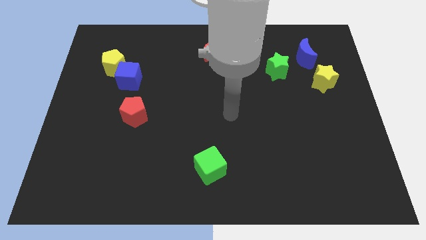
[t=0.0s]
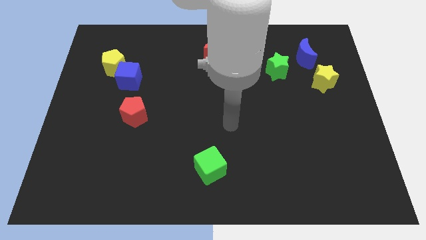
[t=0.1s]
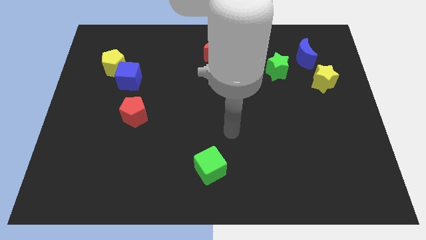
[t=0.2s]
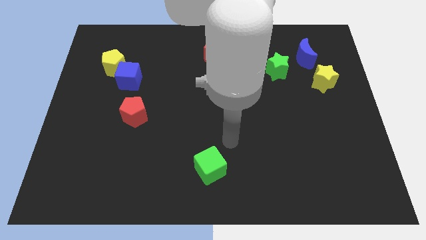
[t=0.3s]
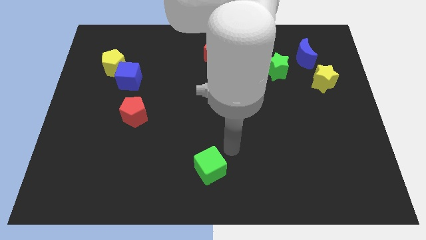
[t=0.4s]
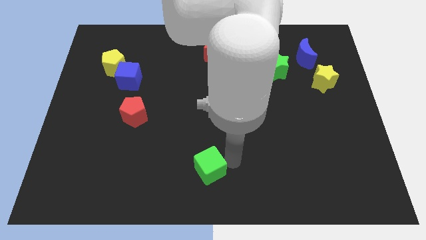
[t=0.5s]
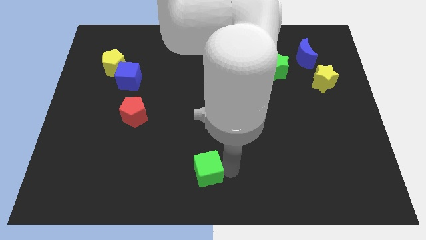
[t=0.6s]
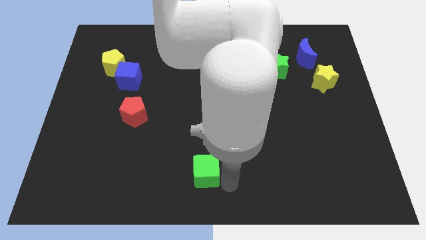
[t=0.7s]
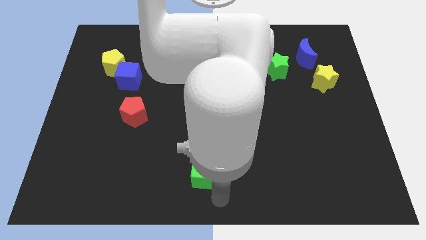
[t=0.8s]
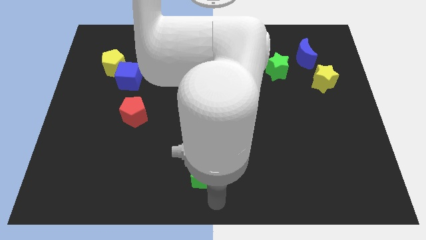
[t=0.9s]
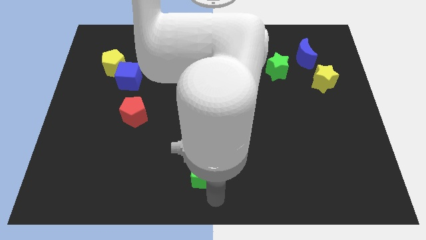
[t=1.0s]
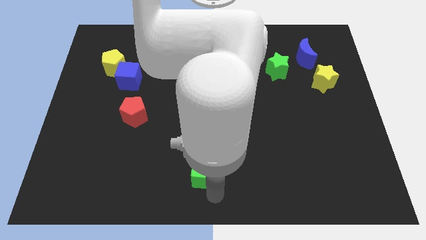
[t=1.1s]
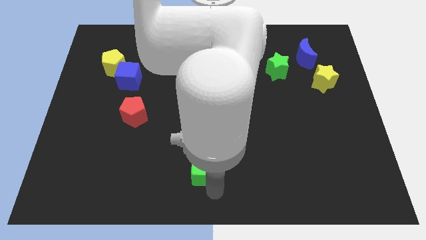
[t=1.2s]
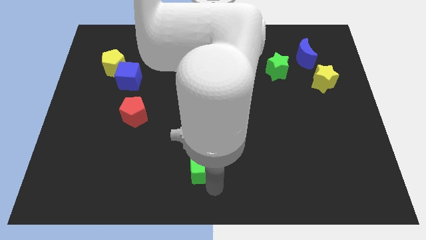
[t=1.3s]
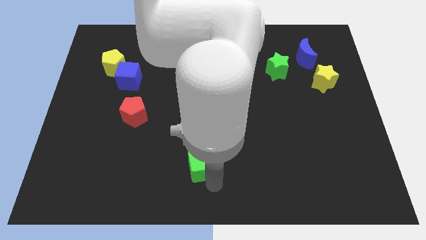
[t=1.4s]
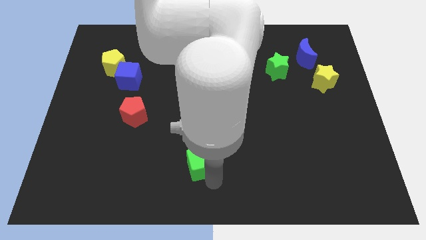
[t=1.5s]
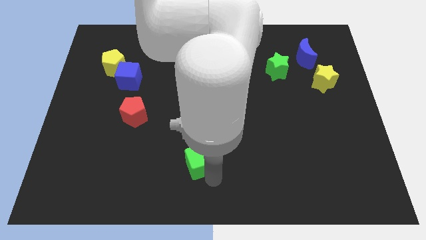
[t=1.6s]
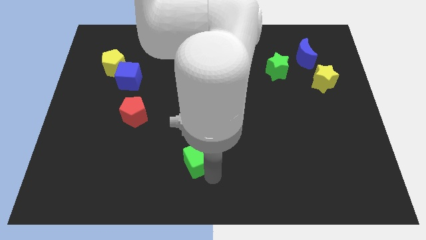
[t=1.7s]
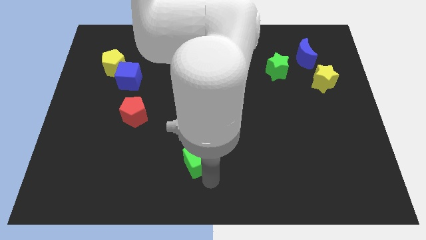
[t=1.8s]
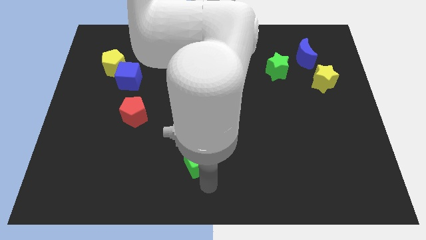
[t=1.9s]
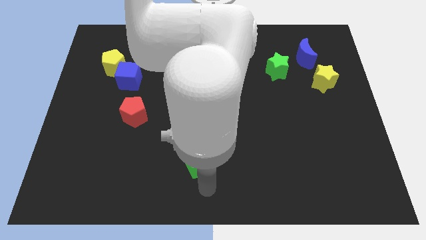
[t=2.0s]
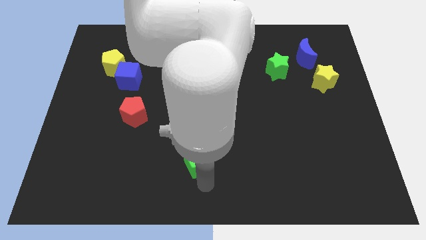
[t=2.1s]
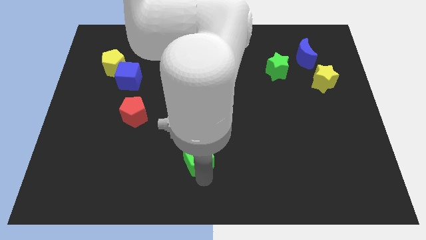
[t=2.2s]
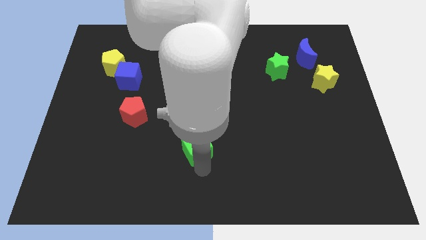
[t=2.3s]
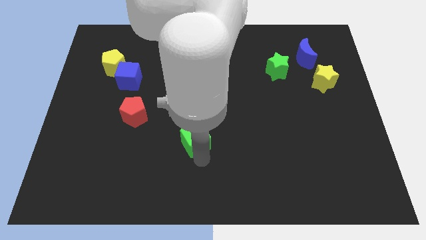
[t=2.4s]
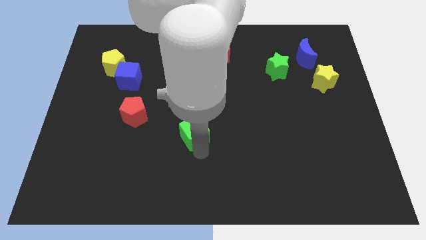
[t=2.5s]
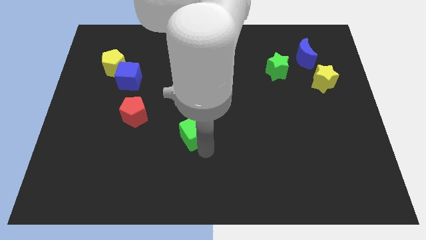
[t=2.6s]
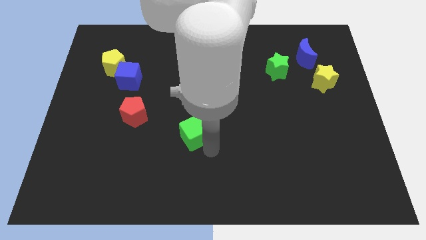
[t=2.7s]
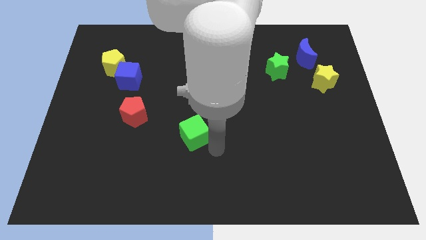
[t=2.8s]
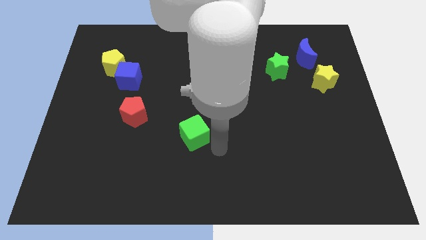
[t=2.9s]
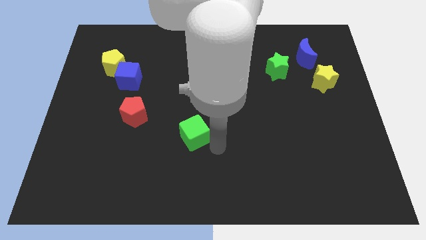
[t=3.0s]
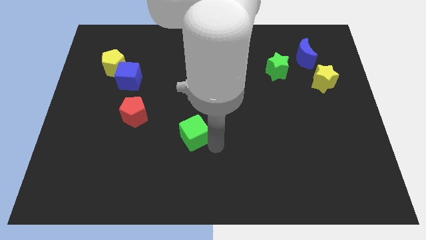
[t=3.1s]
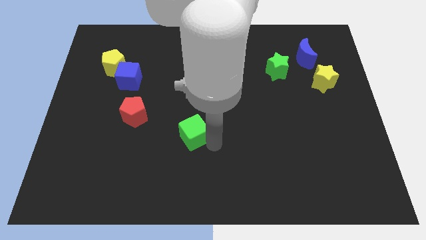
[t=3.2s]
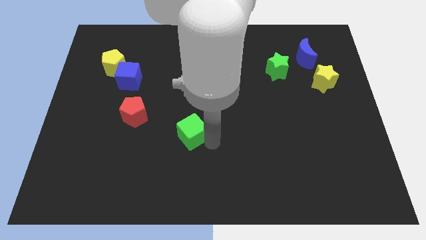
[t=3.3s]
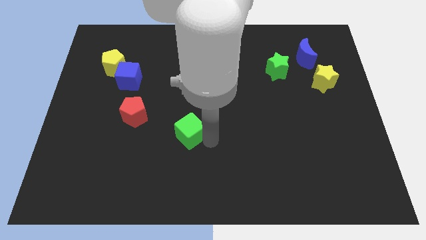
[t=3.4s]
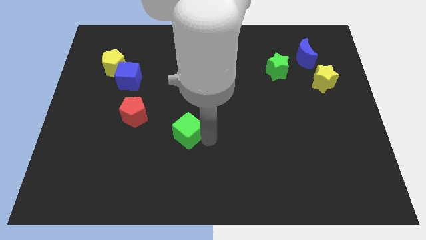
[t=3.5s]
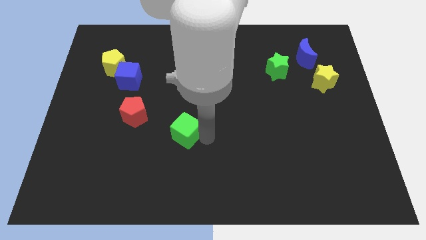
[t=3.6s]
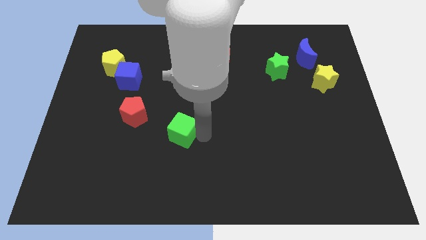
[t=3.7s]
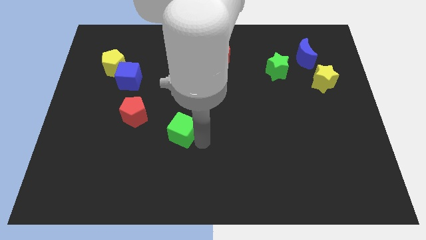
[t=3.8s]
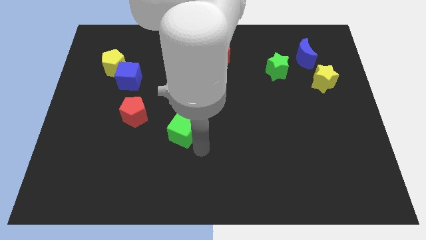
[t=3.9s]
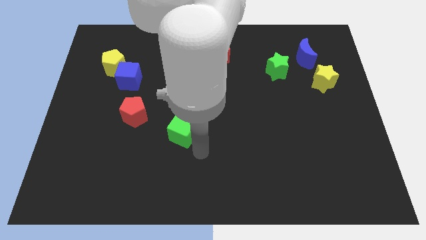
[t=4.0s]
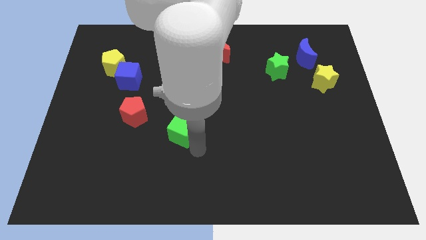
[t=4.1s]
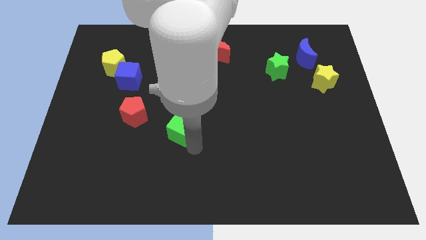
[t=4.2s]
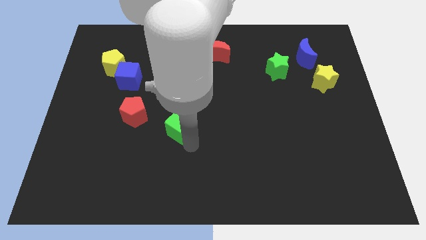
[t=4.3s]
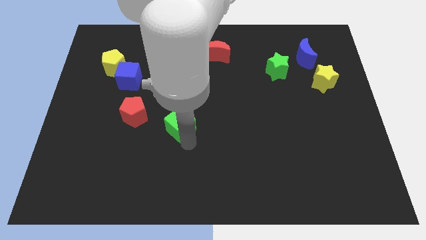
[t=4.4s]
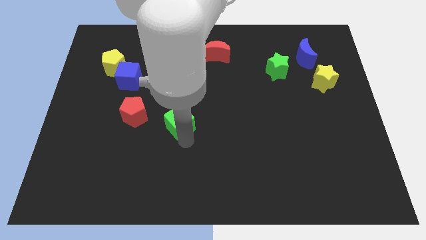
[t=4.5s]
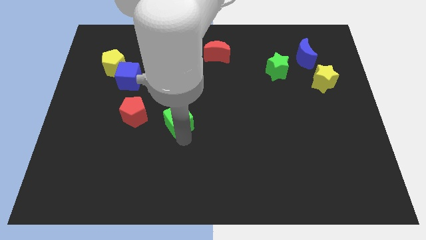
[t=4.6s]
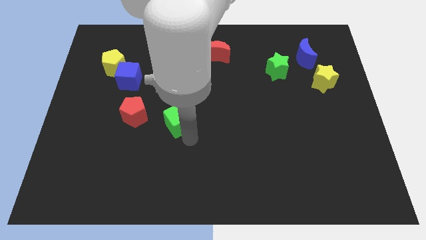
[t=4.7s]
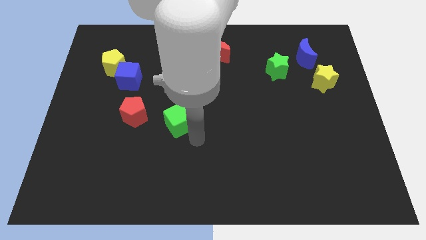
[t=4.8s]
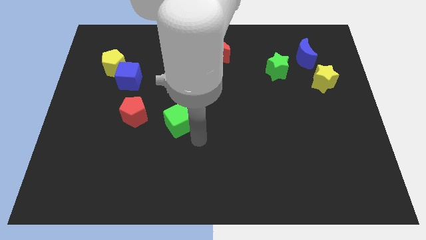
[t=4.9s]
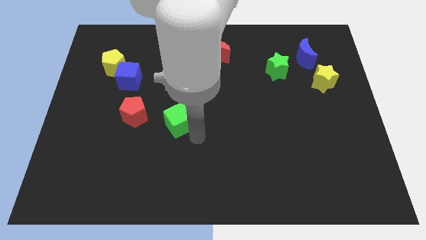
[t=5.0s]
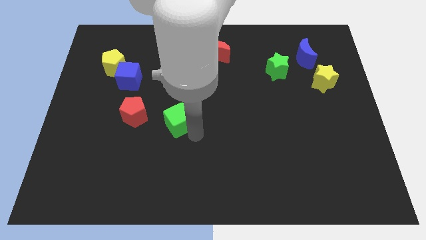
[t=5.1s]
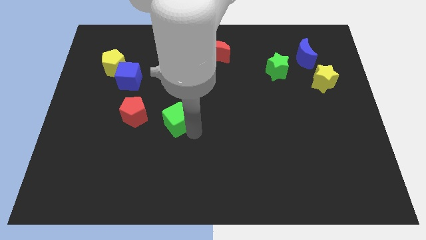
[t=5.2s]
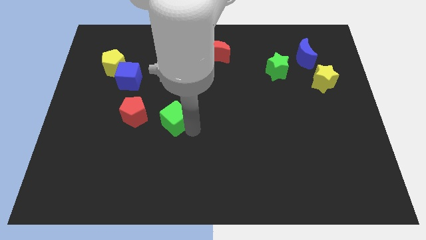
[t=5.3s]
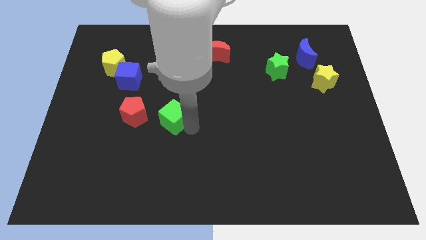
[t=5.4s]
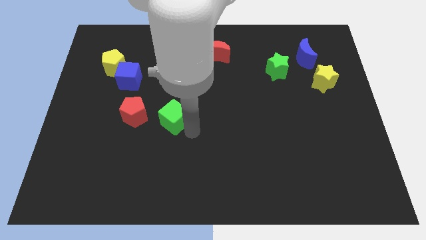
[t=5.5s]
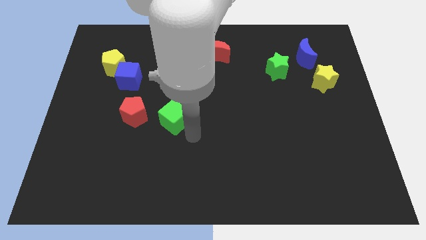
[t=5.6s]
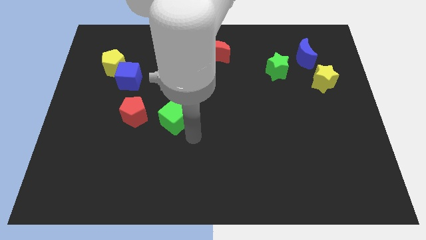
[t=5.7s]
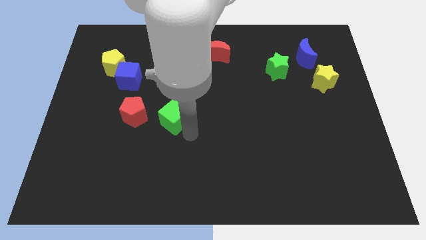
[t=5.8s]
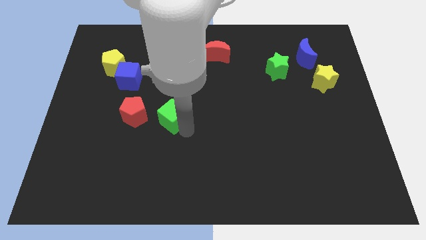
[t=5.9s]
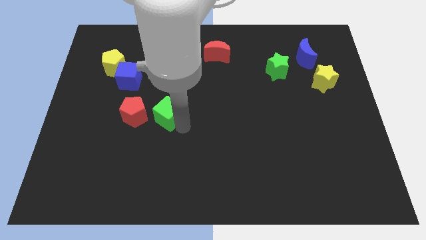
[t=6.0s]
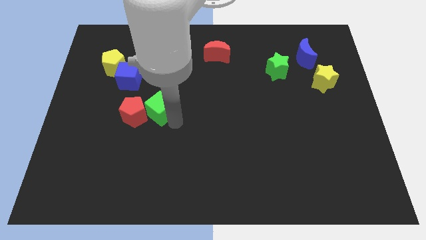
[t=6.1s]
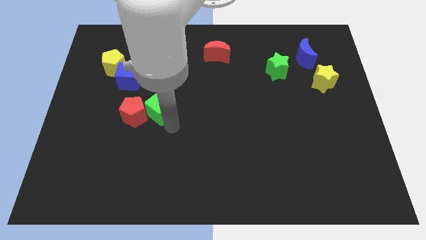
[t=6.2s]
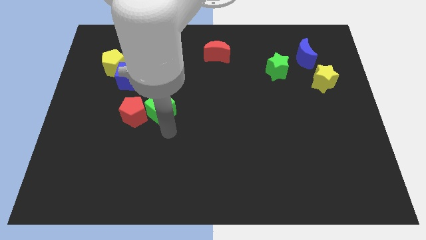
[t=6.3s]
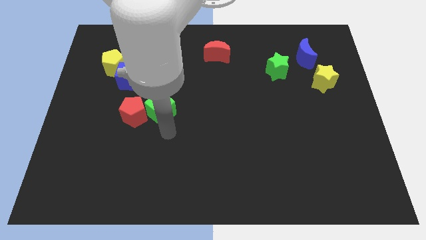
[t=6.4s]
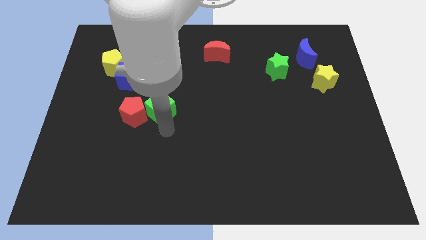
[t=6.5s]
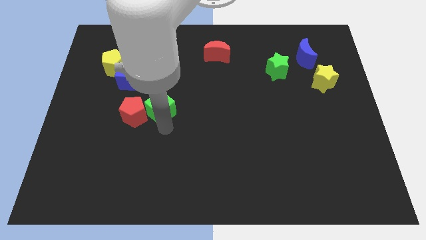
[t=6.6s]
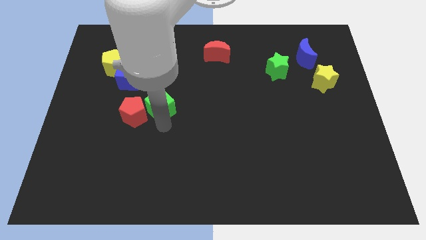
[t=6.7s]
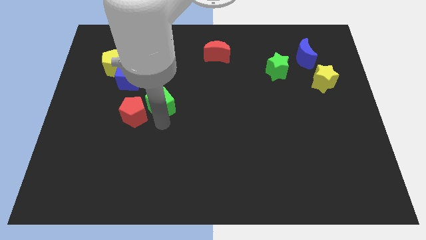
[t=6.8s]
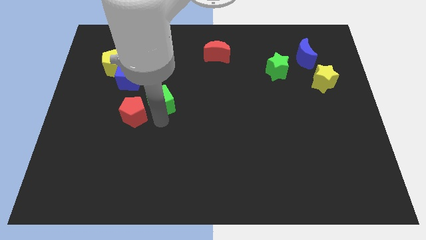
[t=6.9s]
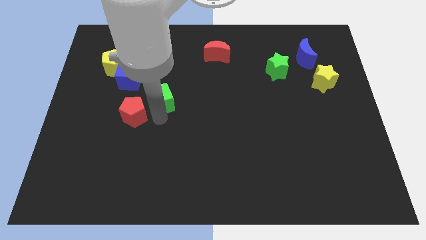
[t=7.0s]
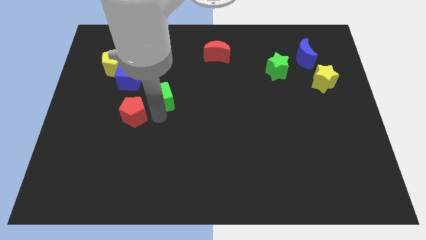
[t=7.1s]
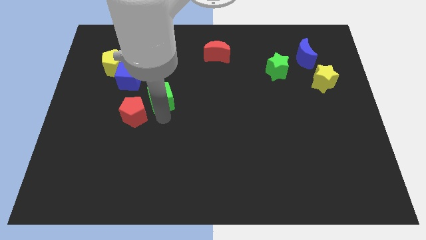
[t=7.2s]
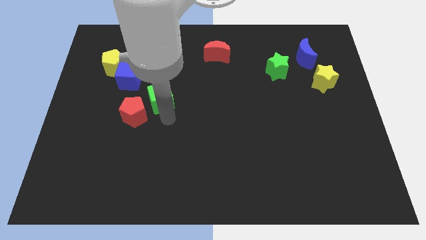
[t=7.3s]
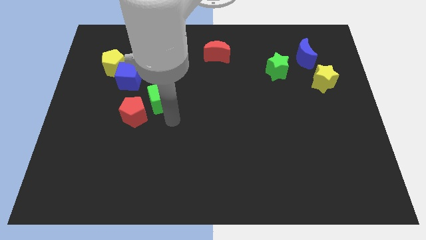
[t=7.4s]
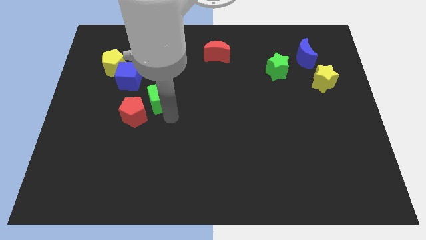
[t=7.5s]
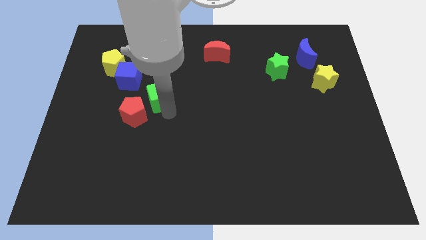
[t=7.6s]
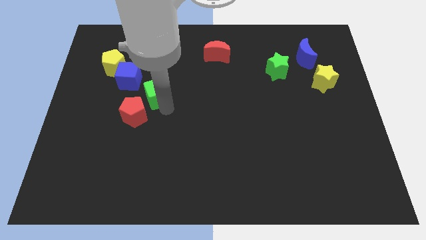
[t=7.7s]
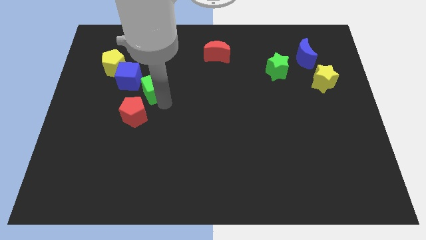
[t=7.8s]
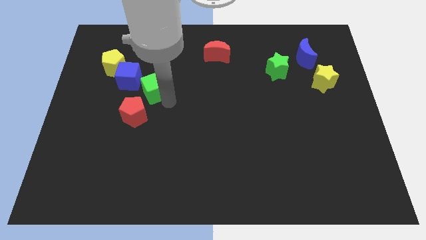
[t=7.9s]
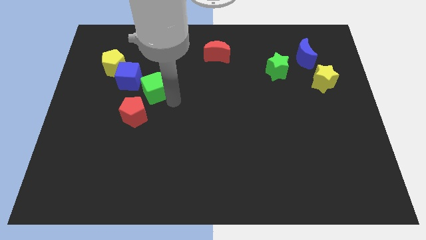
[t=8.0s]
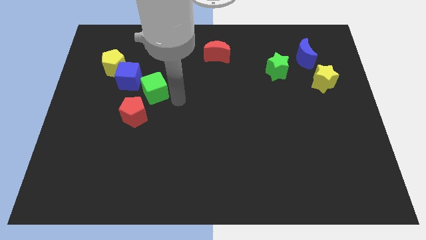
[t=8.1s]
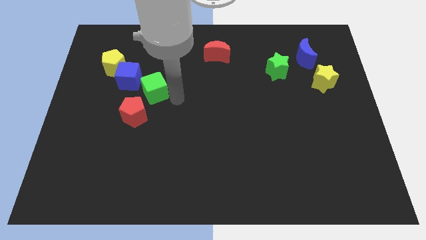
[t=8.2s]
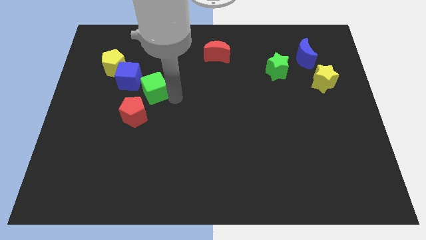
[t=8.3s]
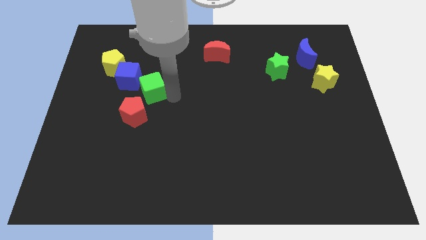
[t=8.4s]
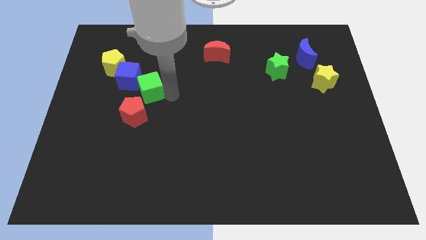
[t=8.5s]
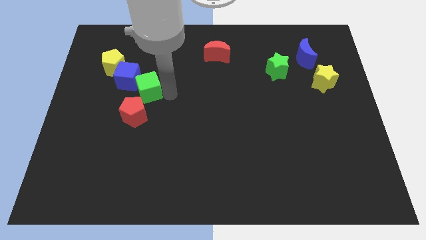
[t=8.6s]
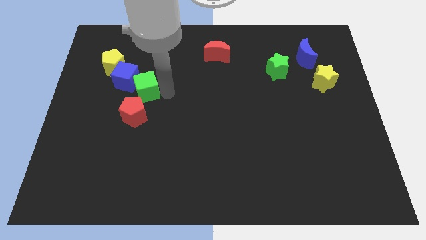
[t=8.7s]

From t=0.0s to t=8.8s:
move the green cube to the blue cube
